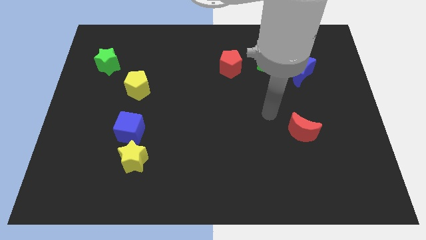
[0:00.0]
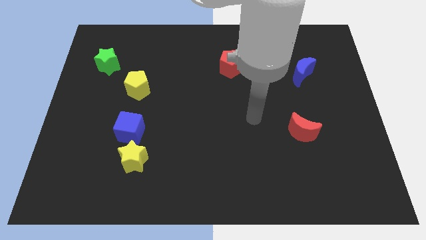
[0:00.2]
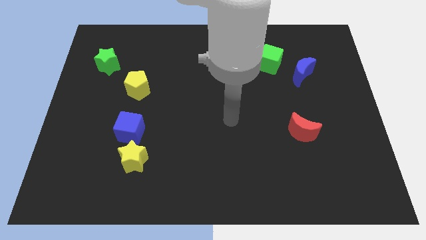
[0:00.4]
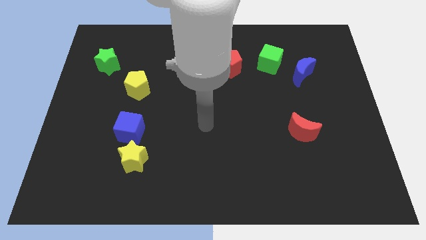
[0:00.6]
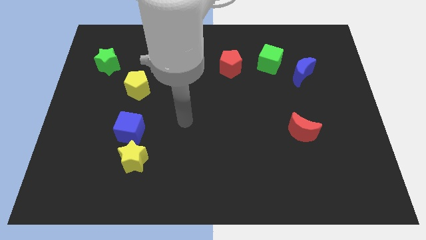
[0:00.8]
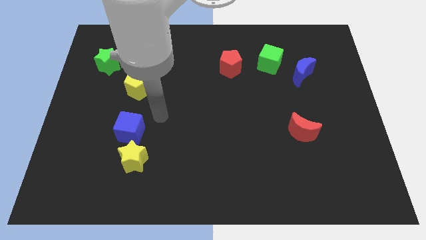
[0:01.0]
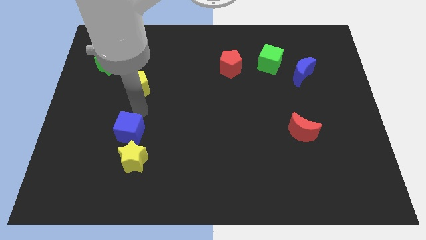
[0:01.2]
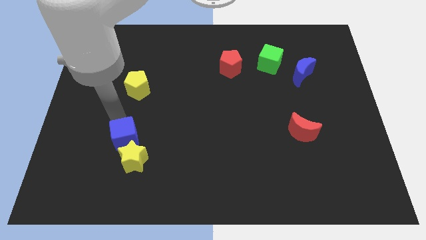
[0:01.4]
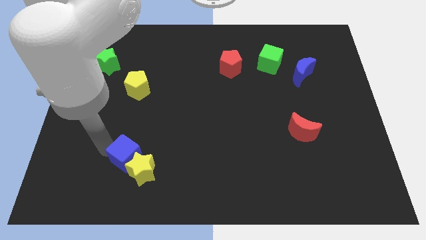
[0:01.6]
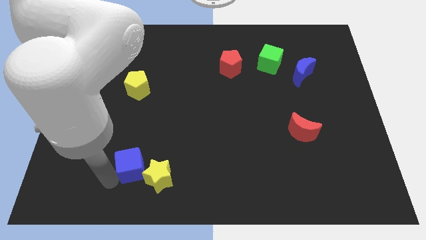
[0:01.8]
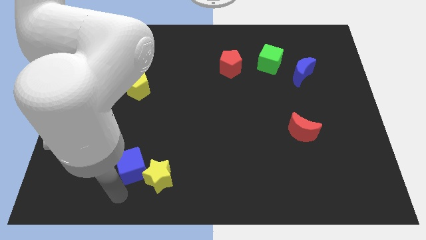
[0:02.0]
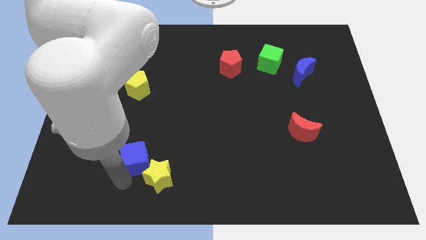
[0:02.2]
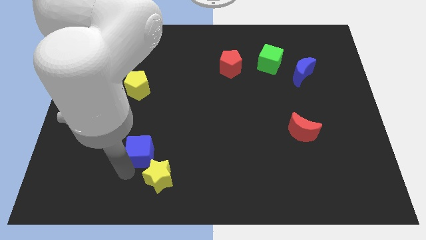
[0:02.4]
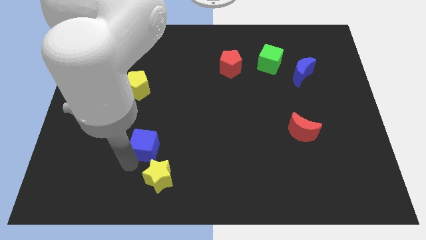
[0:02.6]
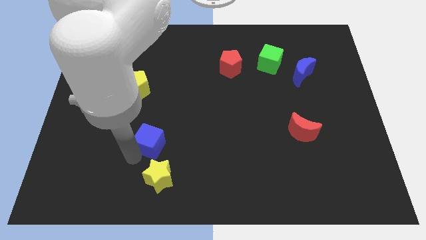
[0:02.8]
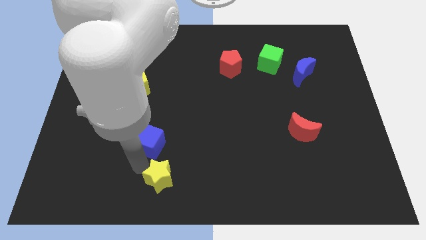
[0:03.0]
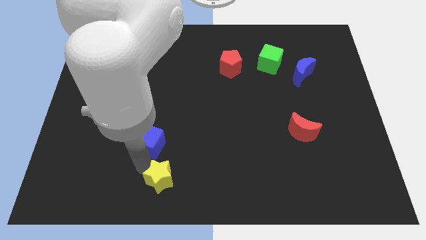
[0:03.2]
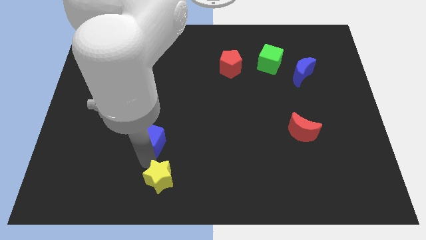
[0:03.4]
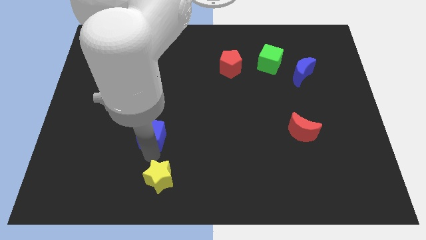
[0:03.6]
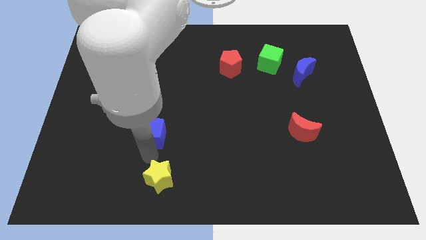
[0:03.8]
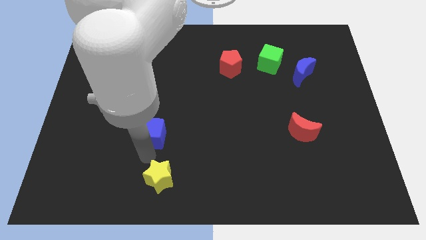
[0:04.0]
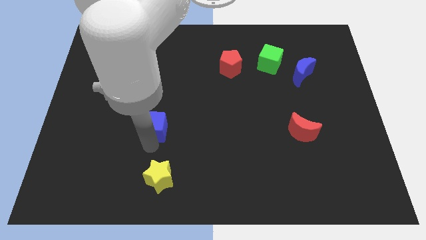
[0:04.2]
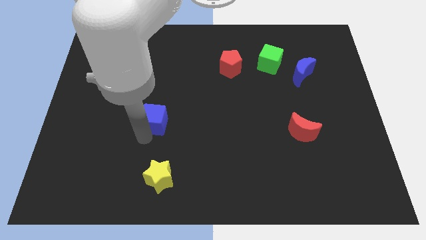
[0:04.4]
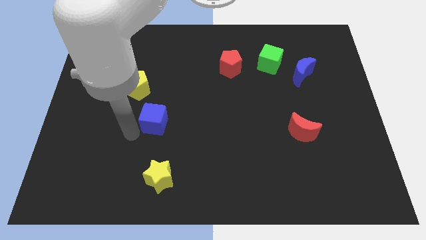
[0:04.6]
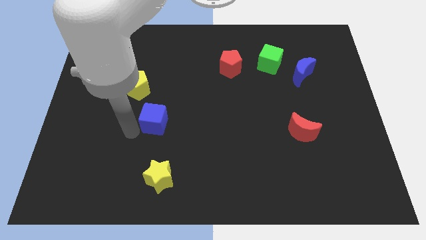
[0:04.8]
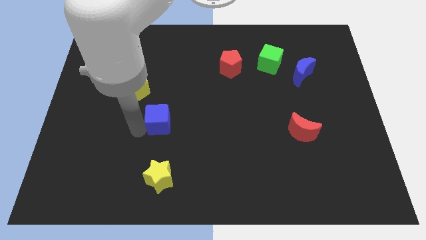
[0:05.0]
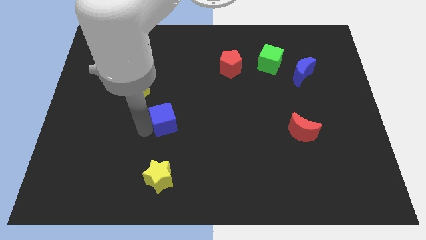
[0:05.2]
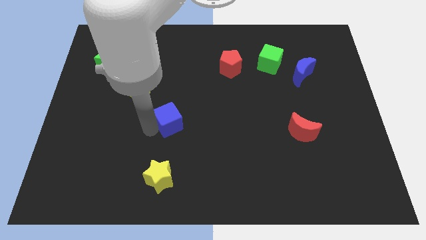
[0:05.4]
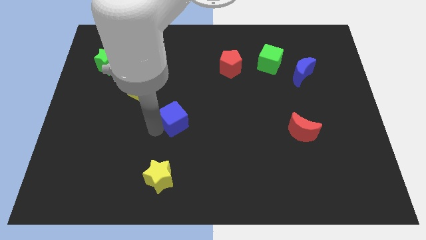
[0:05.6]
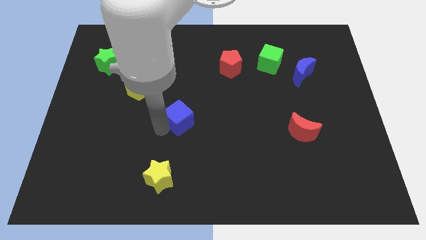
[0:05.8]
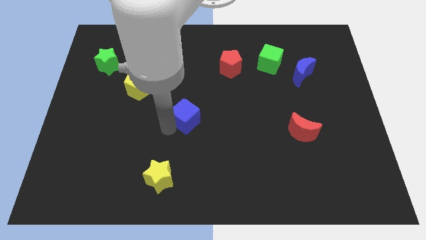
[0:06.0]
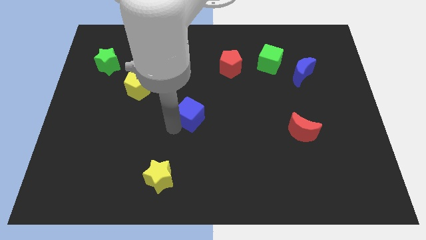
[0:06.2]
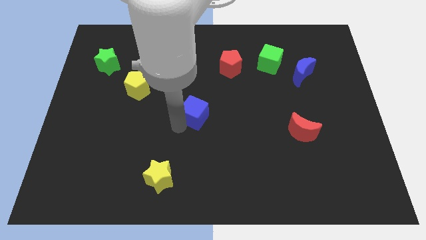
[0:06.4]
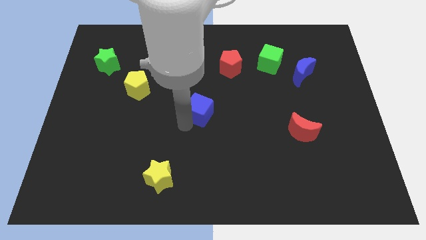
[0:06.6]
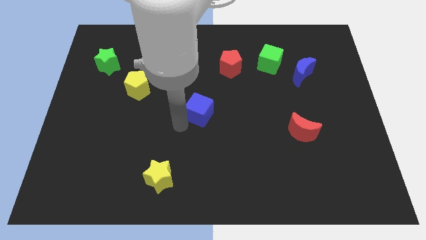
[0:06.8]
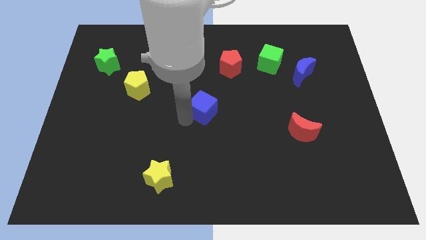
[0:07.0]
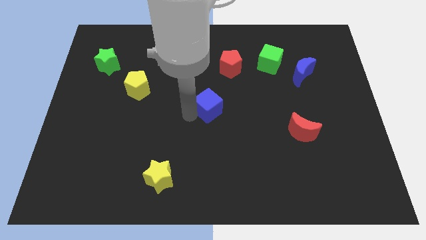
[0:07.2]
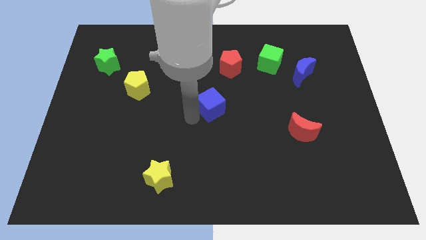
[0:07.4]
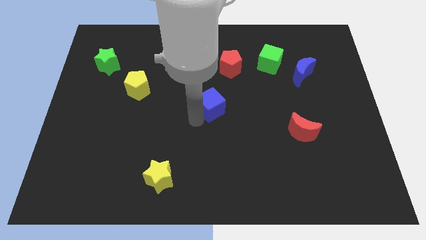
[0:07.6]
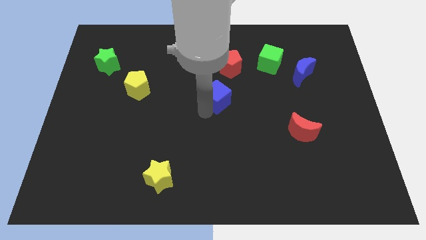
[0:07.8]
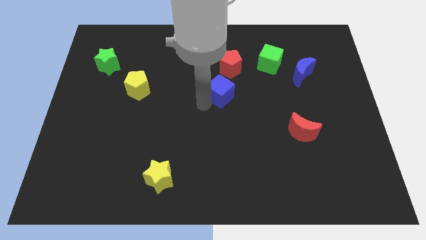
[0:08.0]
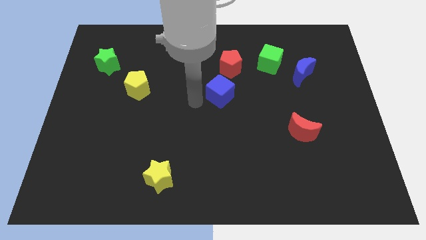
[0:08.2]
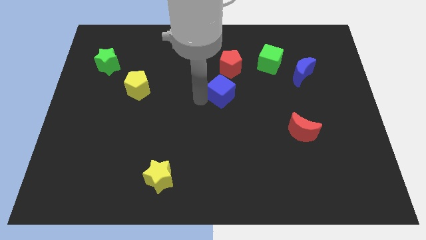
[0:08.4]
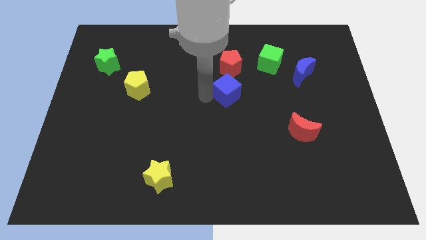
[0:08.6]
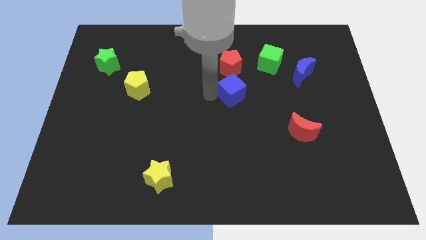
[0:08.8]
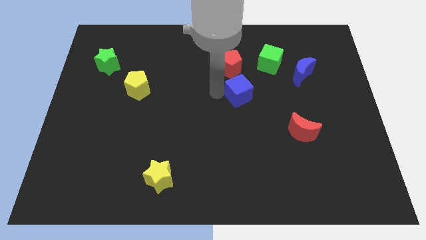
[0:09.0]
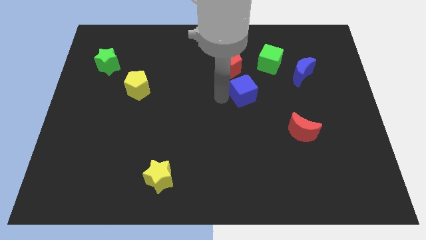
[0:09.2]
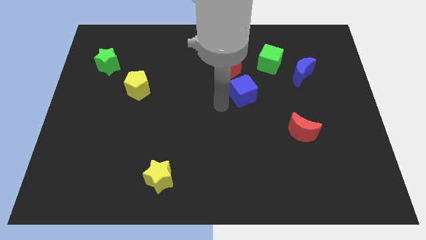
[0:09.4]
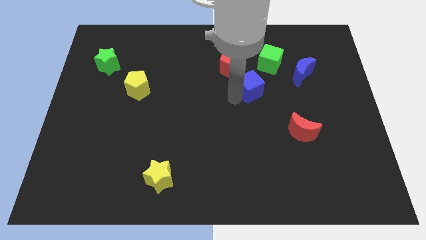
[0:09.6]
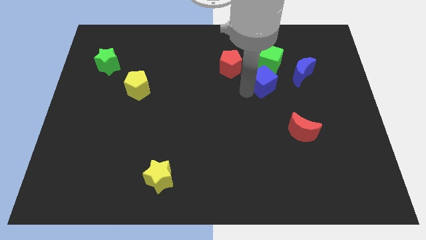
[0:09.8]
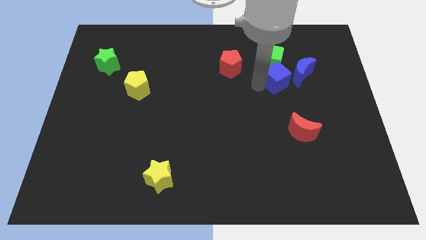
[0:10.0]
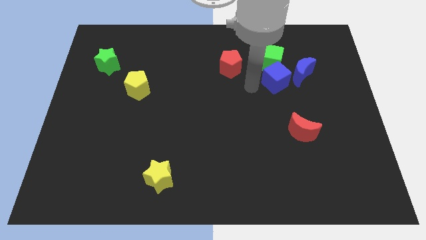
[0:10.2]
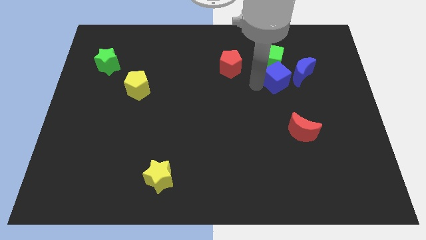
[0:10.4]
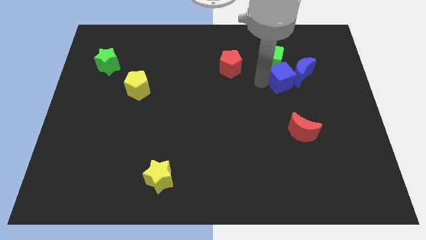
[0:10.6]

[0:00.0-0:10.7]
slide the blue cube close to the blue moon
